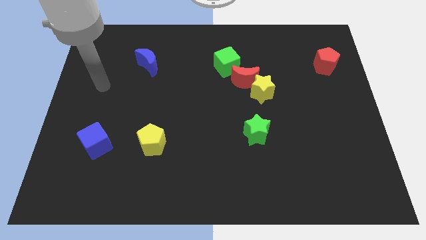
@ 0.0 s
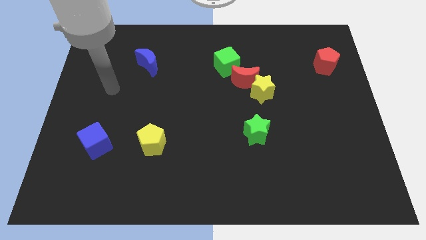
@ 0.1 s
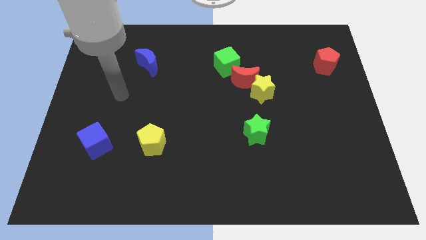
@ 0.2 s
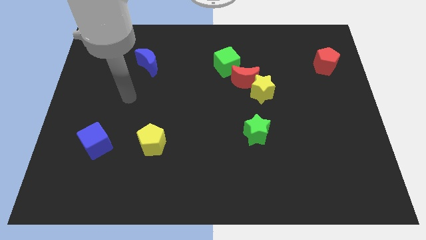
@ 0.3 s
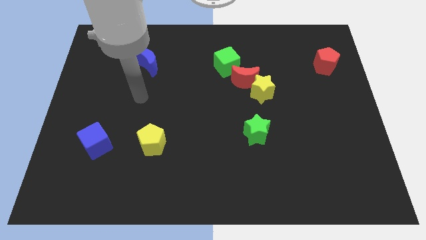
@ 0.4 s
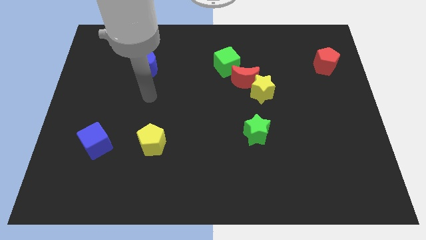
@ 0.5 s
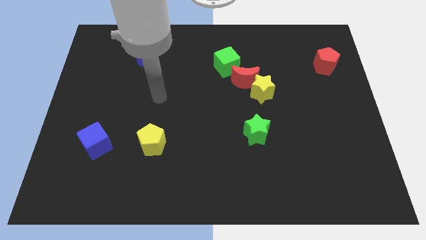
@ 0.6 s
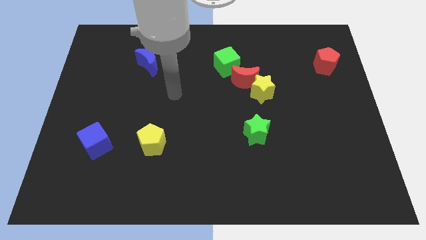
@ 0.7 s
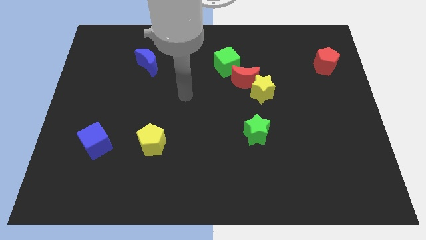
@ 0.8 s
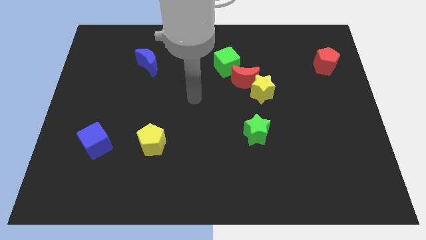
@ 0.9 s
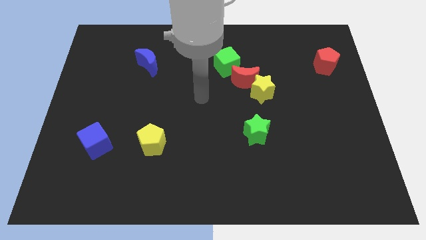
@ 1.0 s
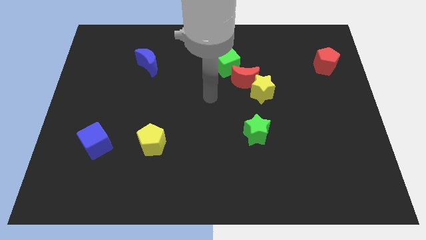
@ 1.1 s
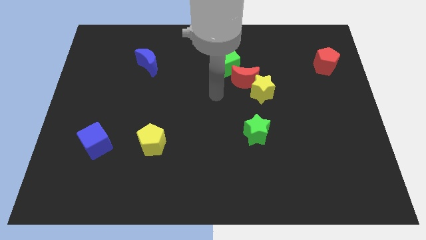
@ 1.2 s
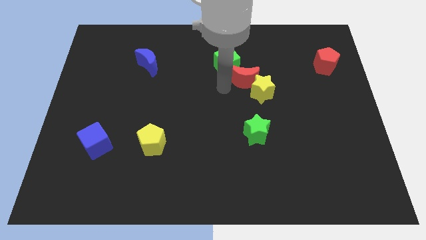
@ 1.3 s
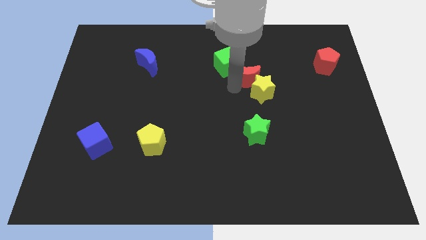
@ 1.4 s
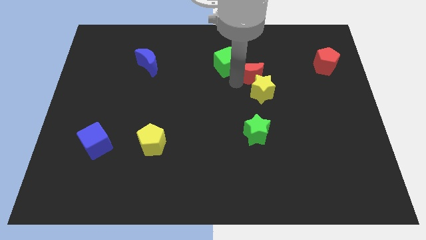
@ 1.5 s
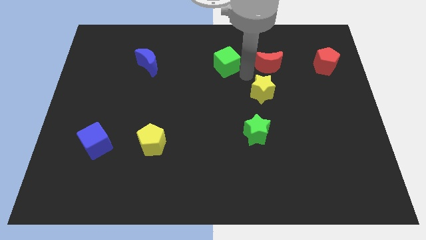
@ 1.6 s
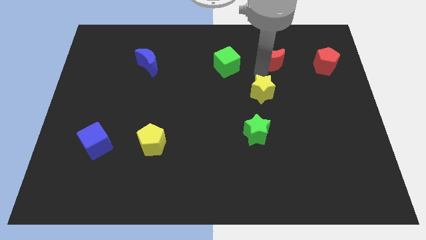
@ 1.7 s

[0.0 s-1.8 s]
move the yellow star away from the red moon

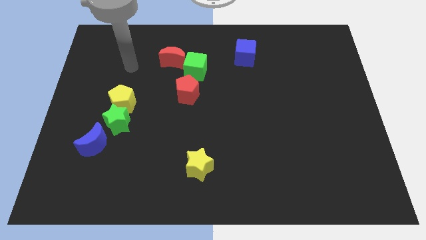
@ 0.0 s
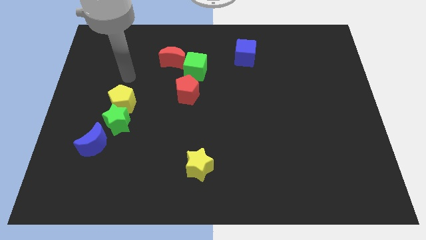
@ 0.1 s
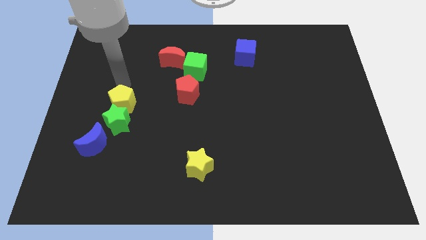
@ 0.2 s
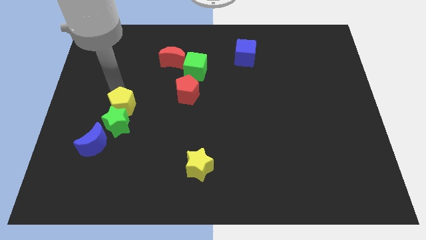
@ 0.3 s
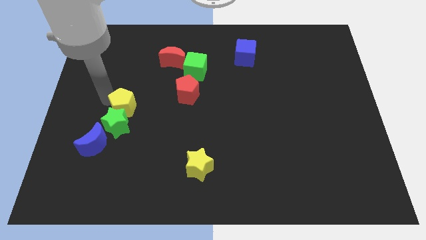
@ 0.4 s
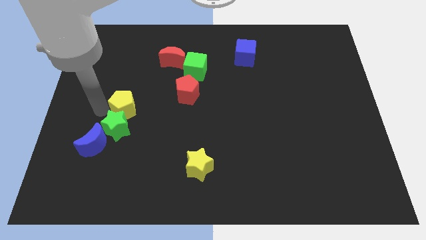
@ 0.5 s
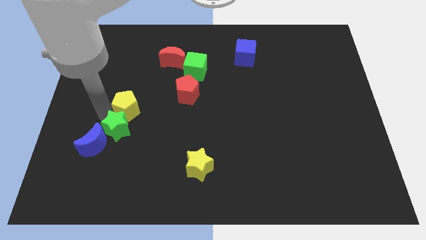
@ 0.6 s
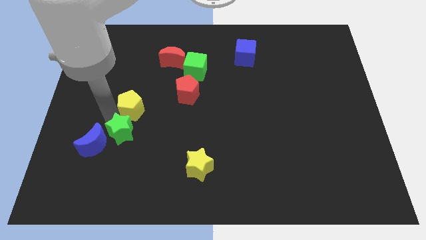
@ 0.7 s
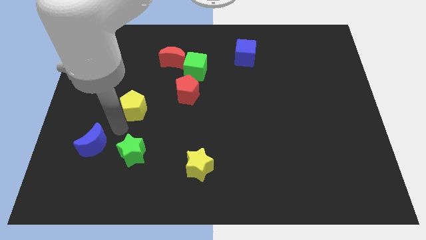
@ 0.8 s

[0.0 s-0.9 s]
separate the yellow pentagon from the green star

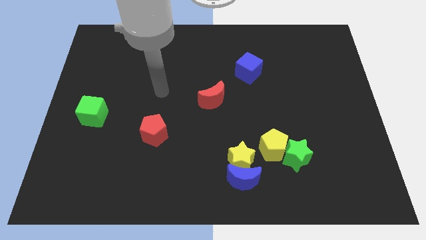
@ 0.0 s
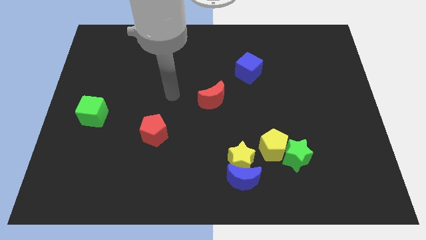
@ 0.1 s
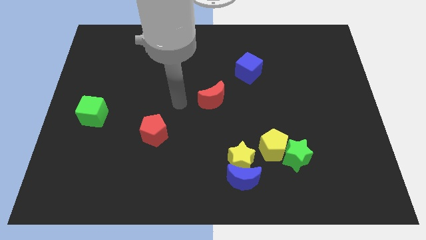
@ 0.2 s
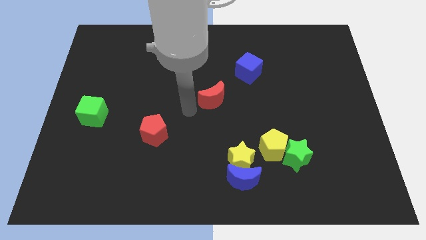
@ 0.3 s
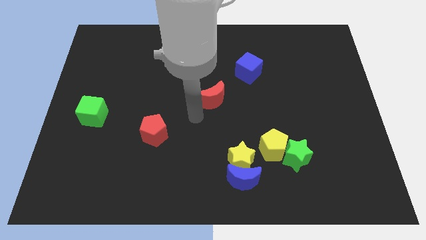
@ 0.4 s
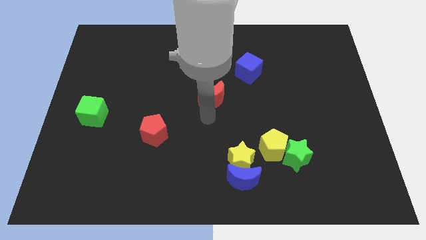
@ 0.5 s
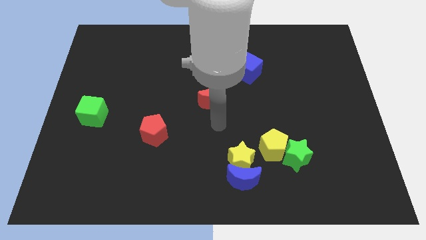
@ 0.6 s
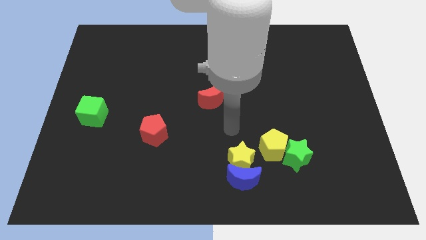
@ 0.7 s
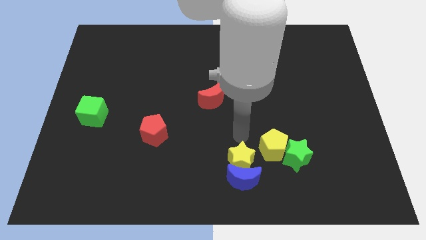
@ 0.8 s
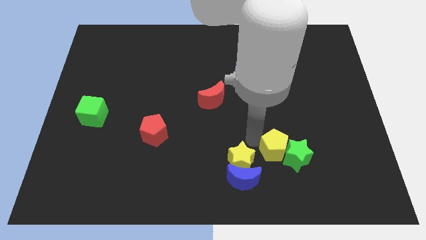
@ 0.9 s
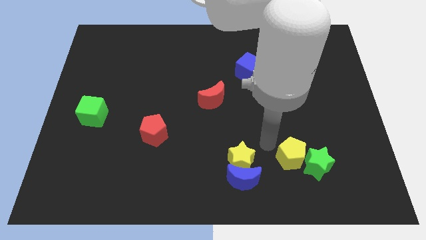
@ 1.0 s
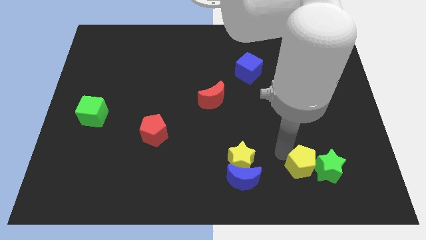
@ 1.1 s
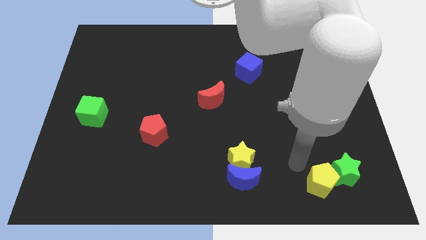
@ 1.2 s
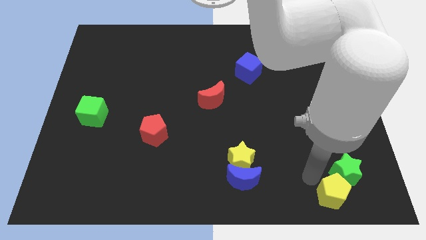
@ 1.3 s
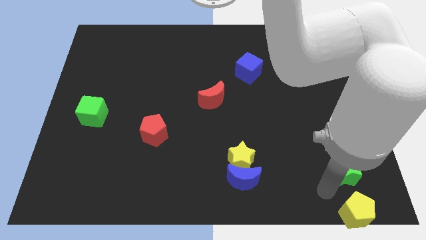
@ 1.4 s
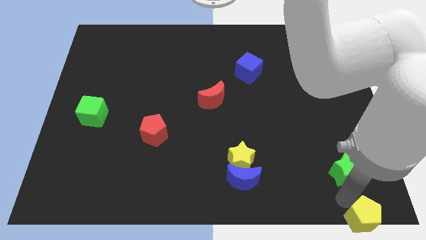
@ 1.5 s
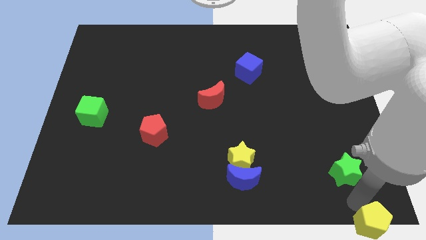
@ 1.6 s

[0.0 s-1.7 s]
pull the green star apart from the yellow pentagon

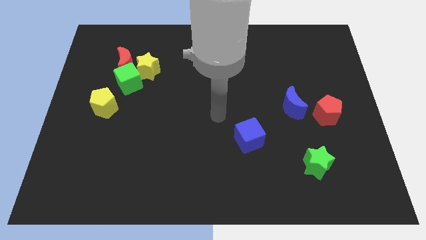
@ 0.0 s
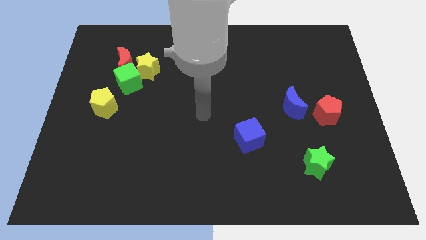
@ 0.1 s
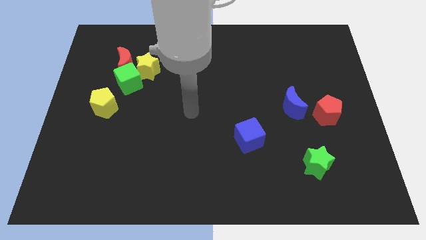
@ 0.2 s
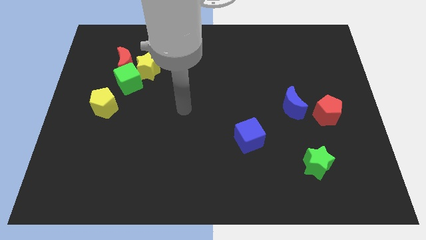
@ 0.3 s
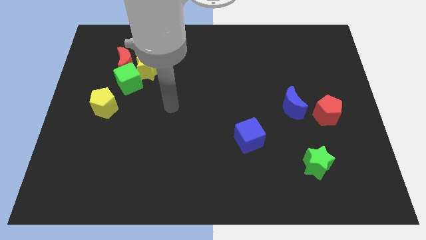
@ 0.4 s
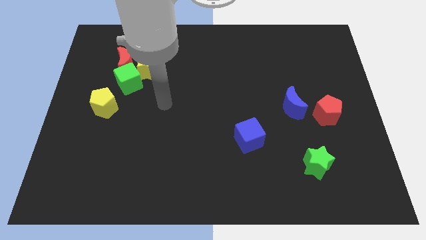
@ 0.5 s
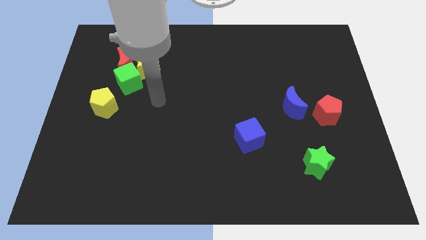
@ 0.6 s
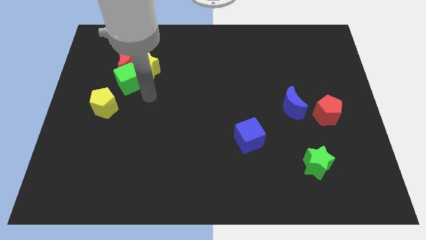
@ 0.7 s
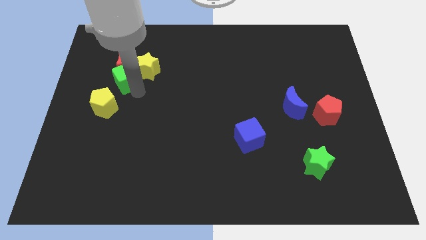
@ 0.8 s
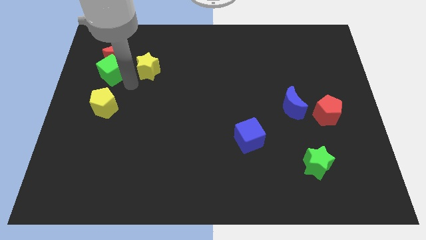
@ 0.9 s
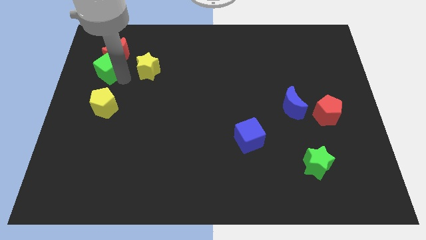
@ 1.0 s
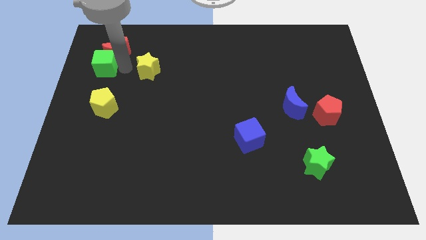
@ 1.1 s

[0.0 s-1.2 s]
pull the yellow star apart from the green cube and red moon

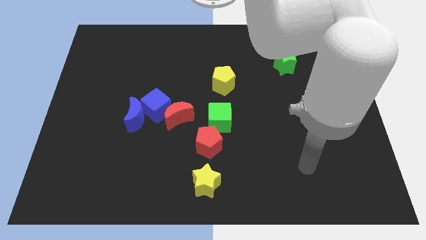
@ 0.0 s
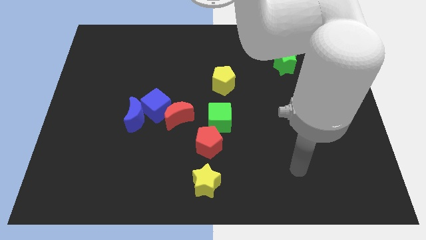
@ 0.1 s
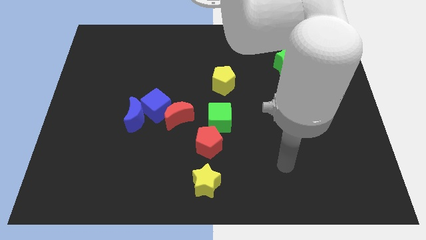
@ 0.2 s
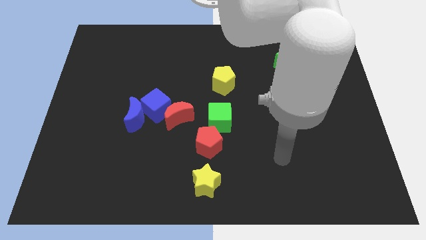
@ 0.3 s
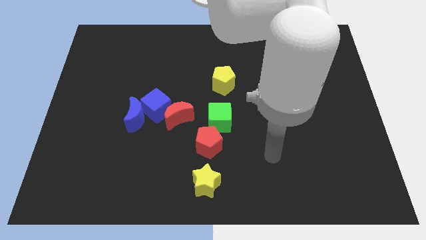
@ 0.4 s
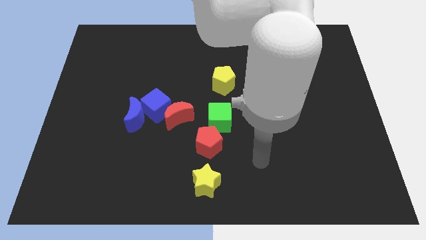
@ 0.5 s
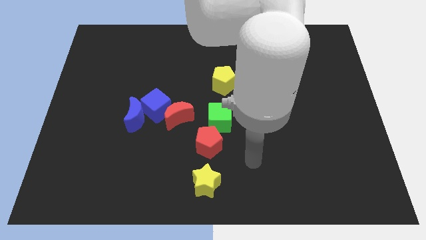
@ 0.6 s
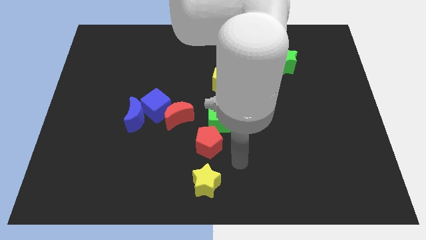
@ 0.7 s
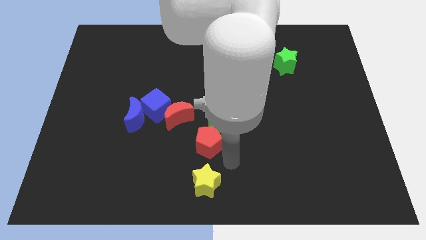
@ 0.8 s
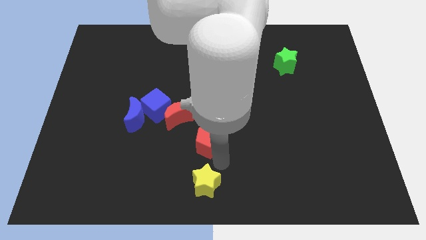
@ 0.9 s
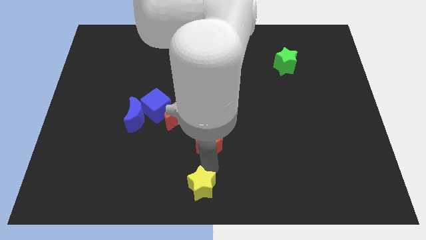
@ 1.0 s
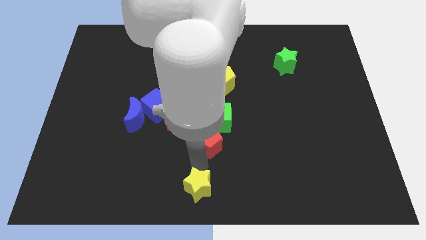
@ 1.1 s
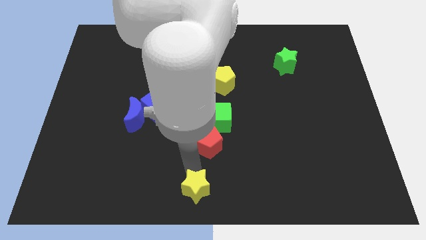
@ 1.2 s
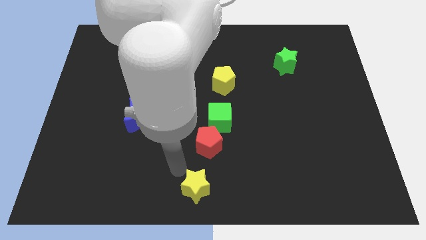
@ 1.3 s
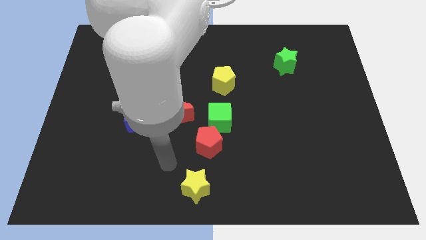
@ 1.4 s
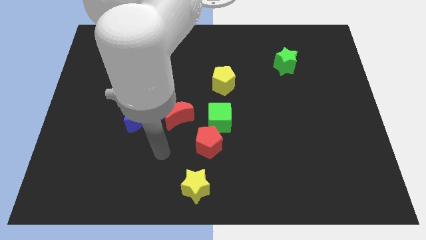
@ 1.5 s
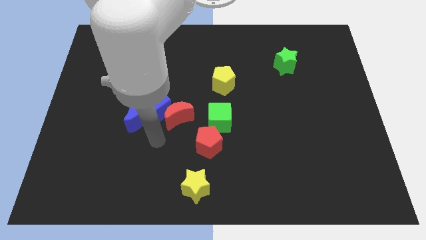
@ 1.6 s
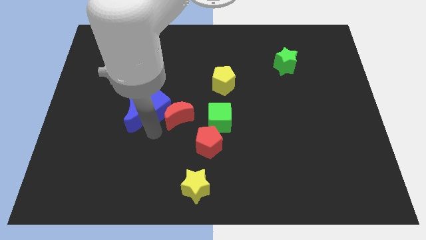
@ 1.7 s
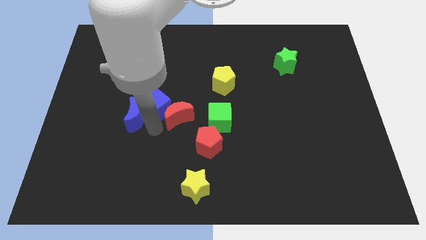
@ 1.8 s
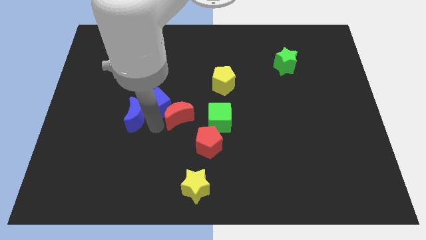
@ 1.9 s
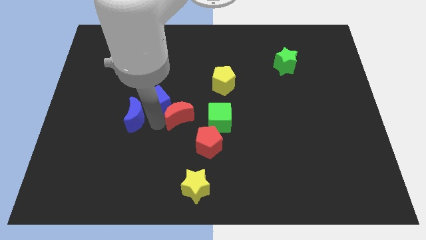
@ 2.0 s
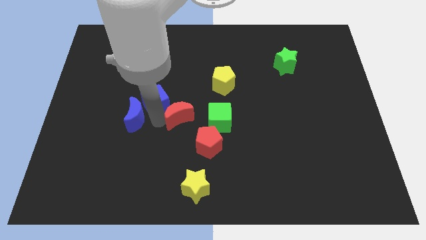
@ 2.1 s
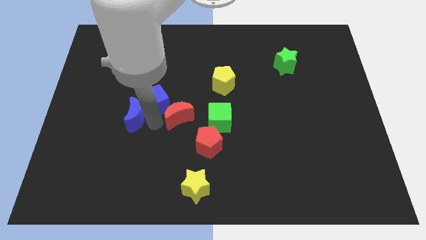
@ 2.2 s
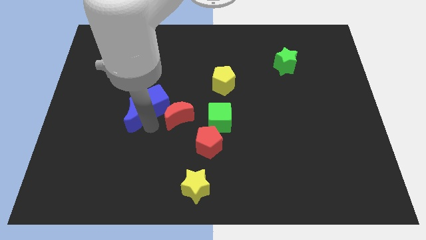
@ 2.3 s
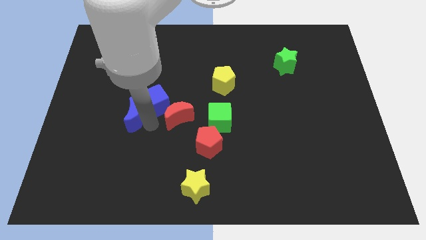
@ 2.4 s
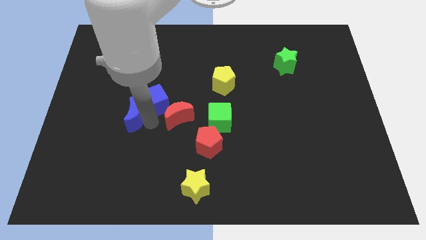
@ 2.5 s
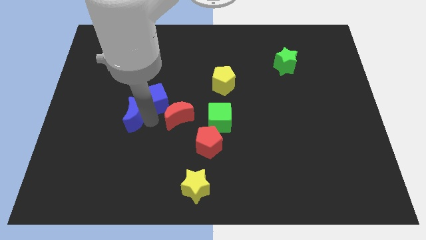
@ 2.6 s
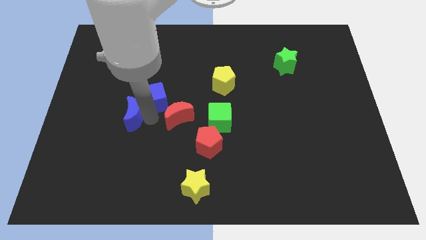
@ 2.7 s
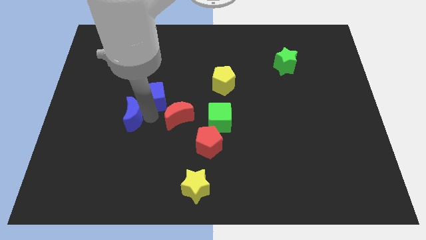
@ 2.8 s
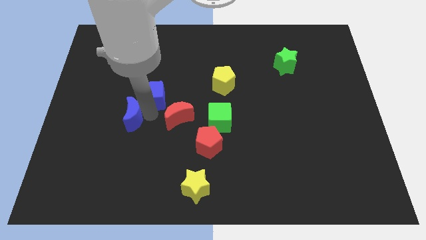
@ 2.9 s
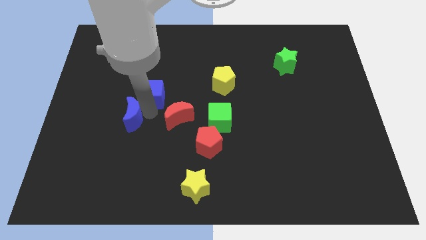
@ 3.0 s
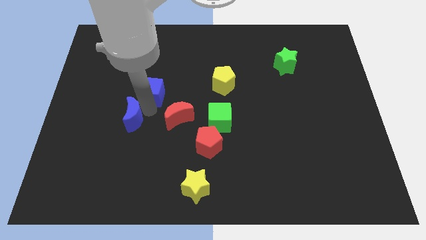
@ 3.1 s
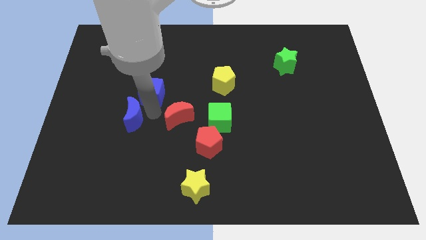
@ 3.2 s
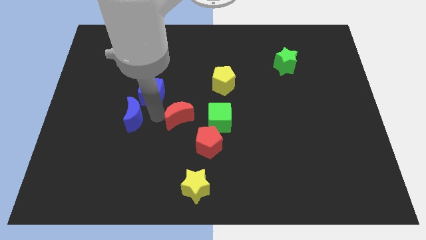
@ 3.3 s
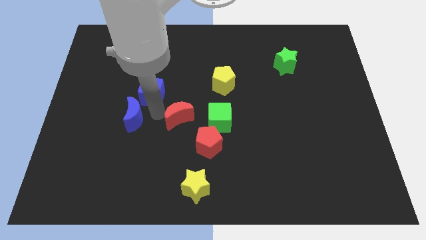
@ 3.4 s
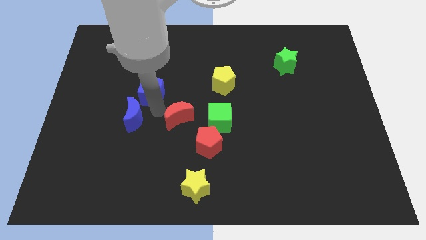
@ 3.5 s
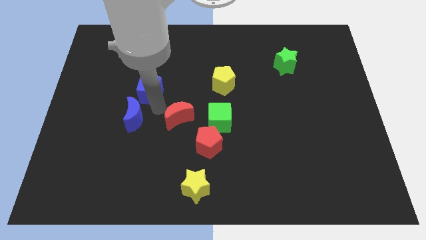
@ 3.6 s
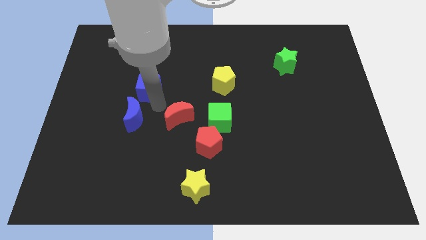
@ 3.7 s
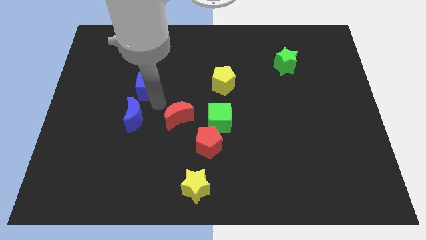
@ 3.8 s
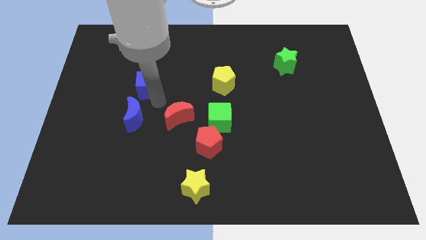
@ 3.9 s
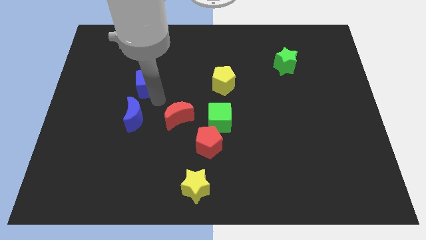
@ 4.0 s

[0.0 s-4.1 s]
move the blue cube away from the blue moon and red moon
